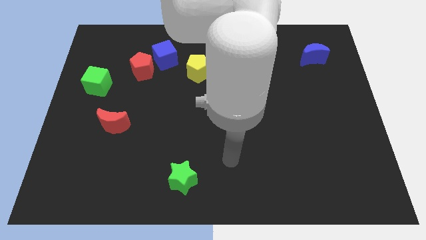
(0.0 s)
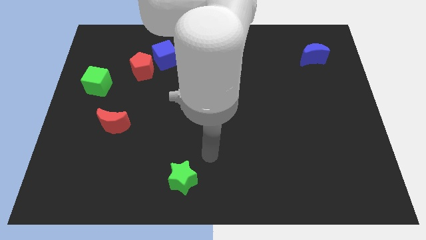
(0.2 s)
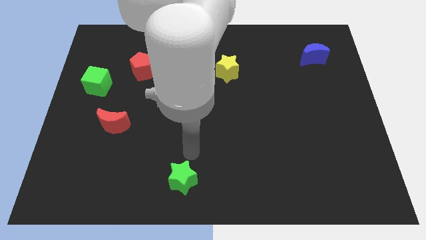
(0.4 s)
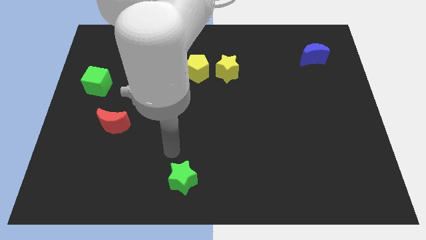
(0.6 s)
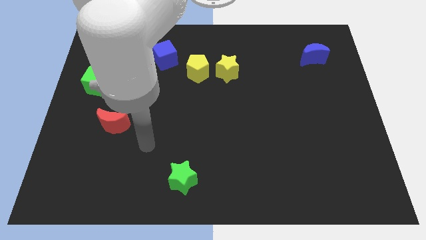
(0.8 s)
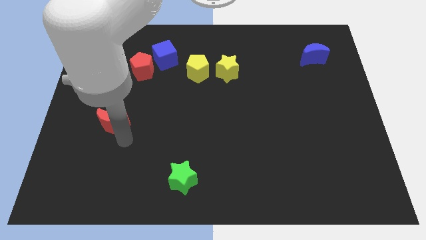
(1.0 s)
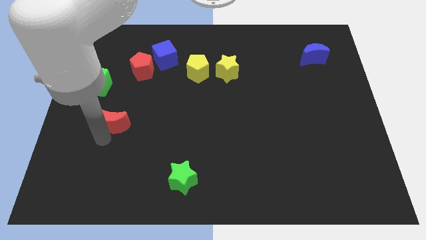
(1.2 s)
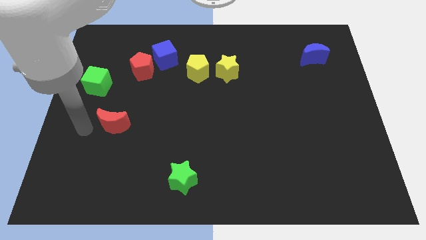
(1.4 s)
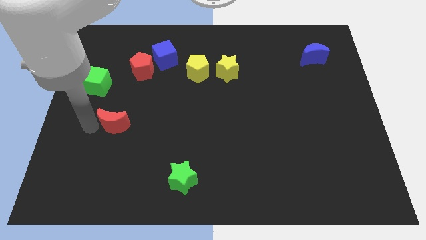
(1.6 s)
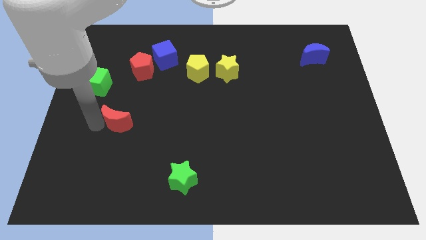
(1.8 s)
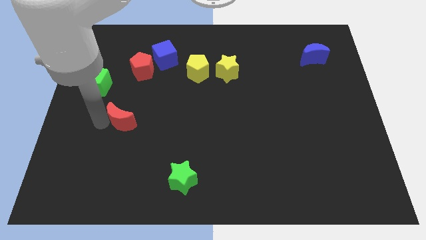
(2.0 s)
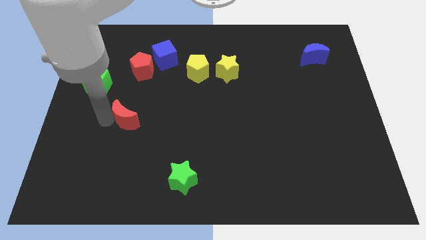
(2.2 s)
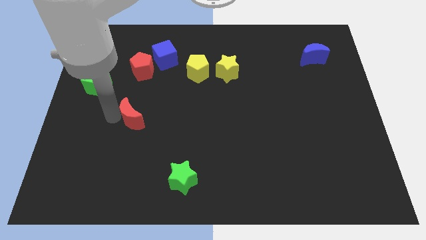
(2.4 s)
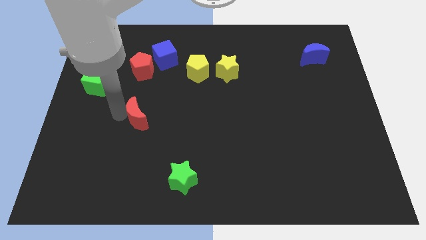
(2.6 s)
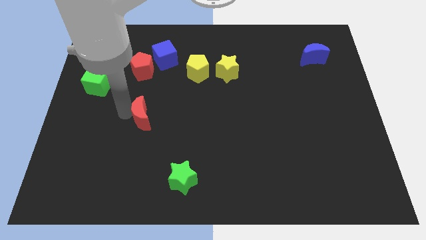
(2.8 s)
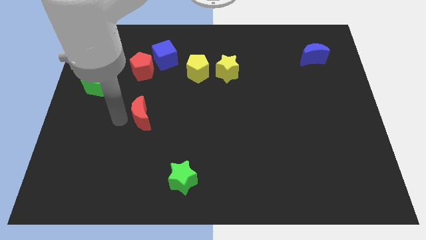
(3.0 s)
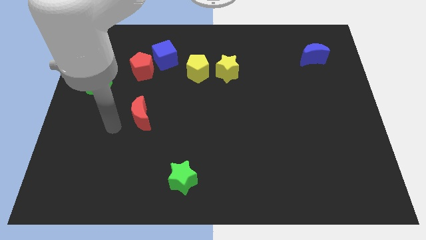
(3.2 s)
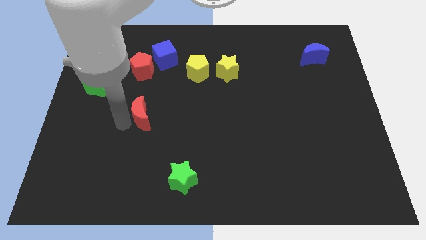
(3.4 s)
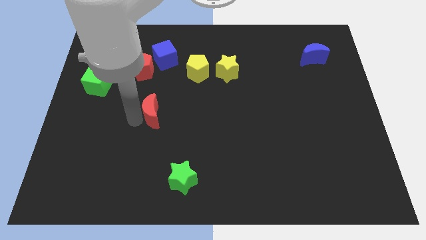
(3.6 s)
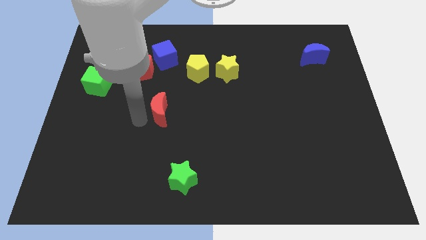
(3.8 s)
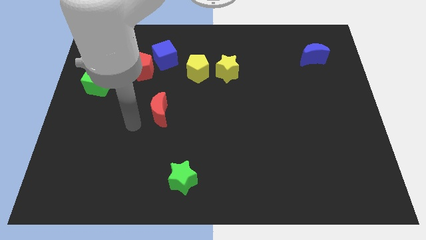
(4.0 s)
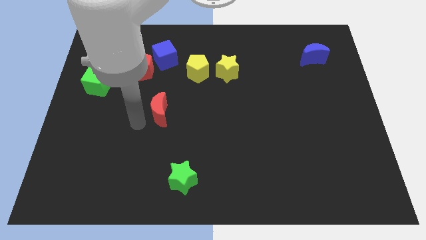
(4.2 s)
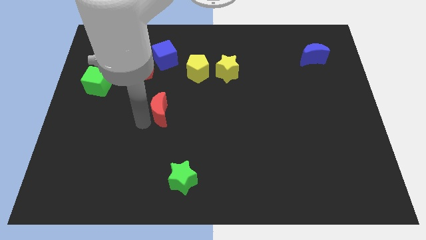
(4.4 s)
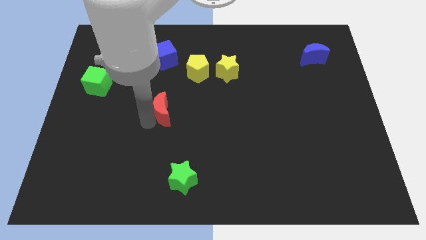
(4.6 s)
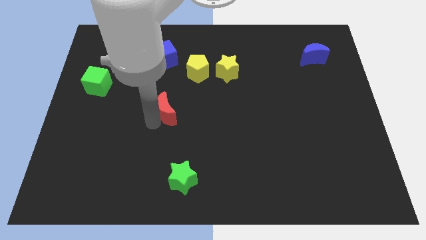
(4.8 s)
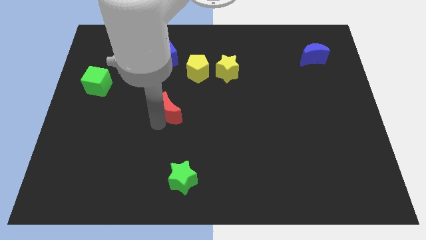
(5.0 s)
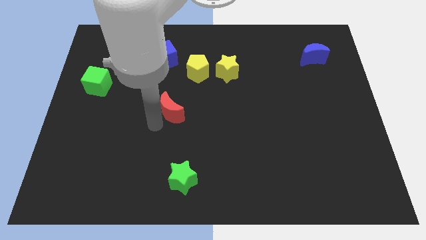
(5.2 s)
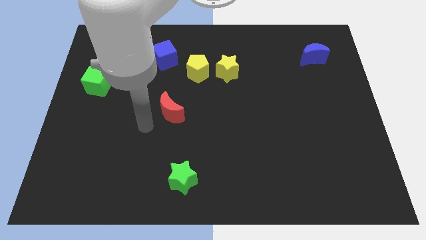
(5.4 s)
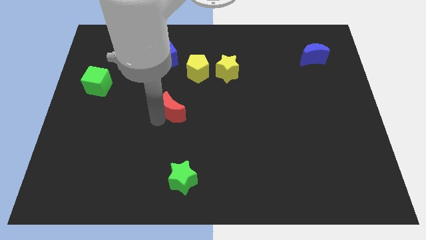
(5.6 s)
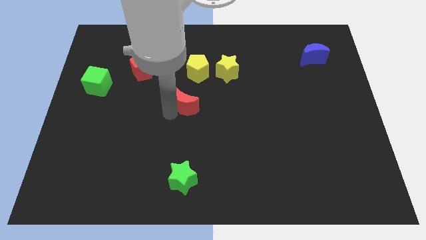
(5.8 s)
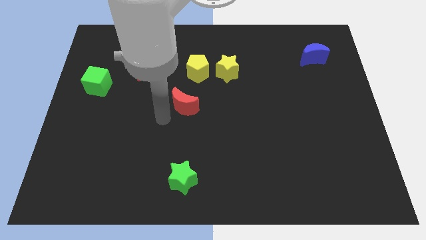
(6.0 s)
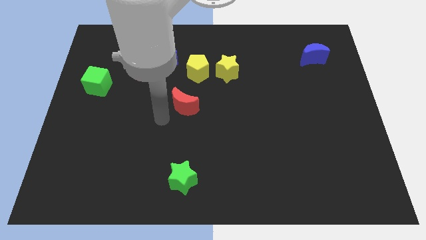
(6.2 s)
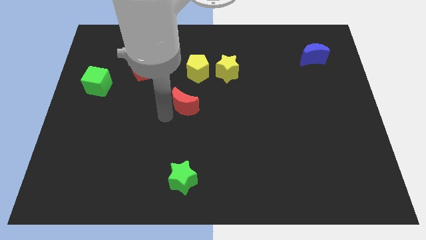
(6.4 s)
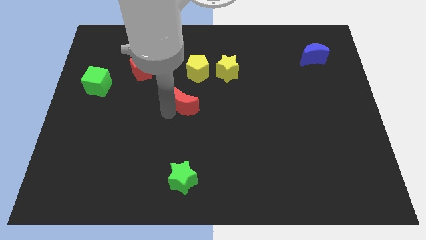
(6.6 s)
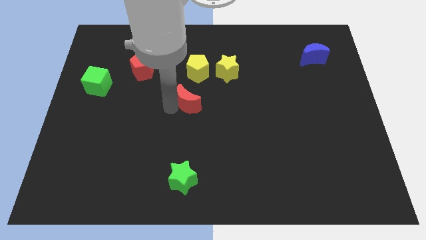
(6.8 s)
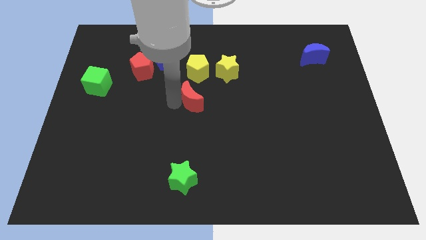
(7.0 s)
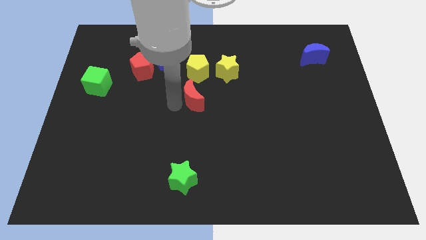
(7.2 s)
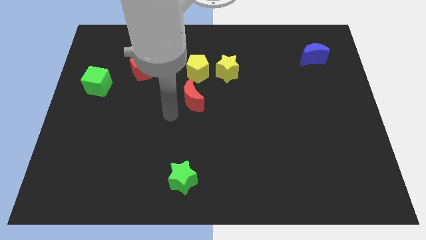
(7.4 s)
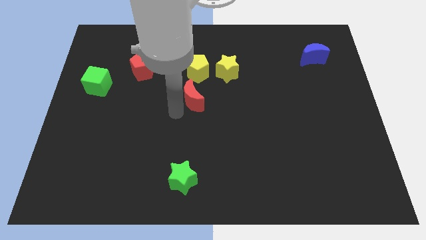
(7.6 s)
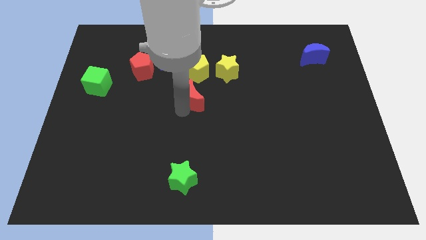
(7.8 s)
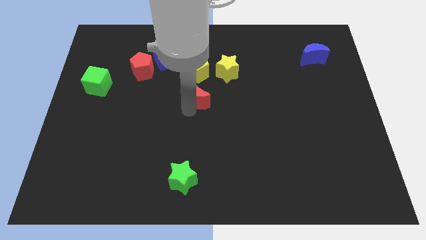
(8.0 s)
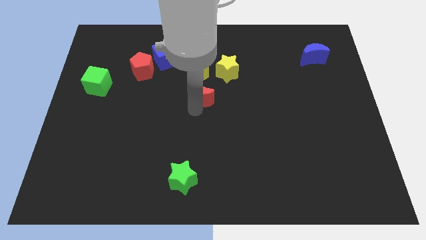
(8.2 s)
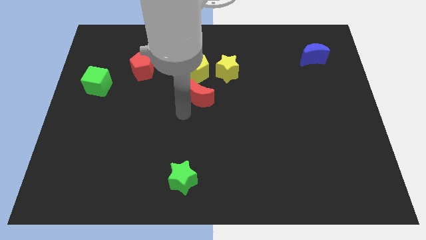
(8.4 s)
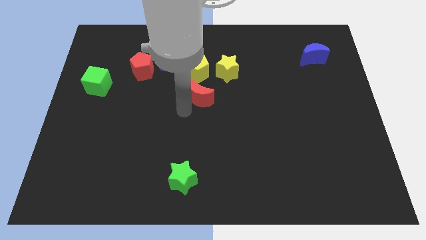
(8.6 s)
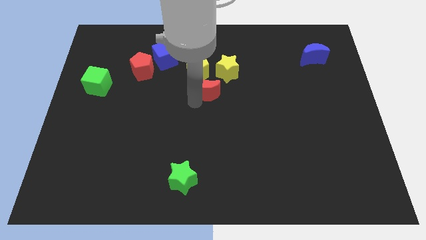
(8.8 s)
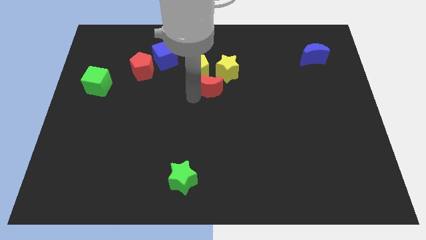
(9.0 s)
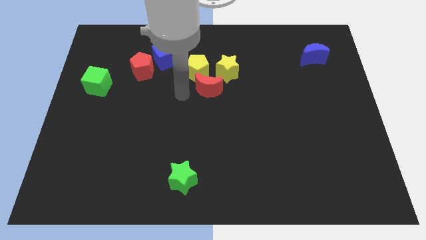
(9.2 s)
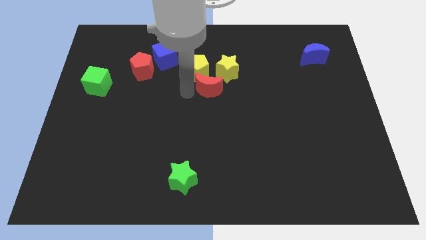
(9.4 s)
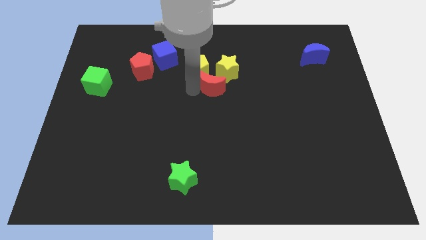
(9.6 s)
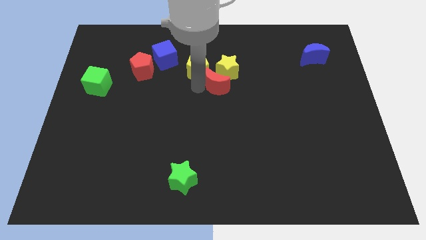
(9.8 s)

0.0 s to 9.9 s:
push the red moon just right of the yellow pentagon

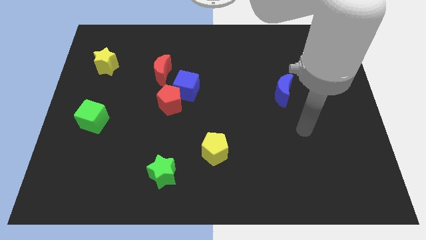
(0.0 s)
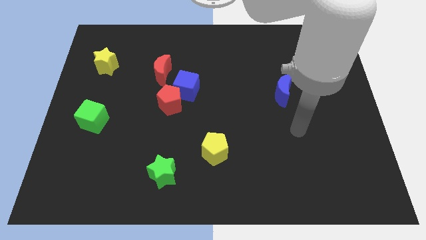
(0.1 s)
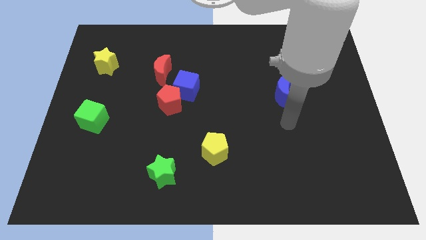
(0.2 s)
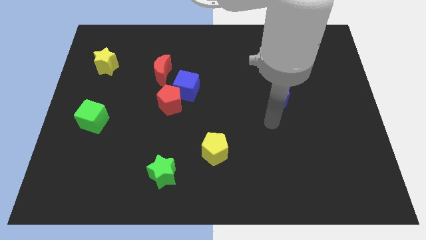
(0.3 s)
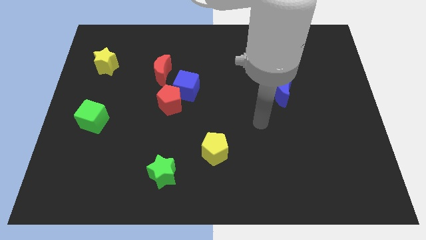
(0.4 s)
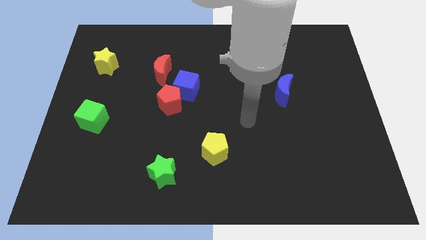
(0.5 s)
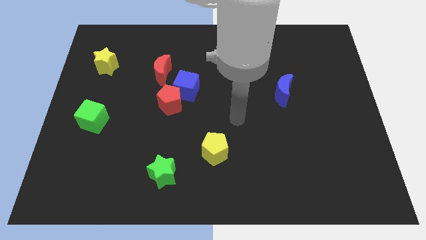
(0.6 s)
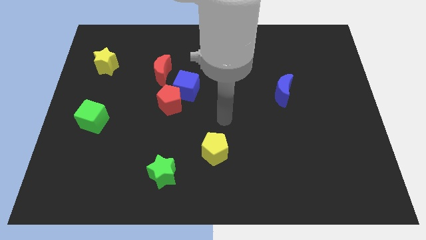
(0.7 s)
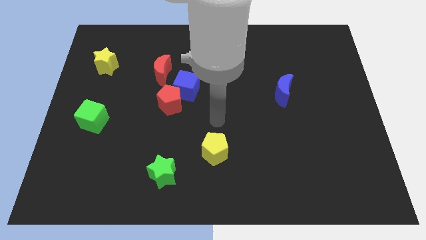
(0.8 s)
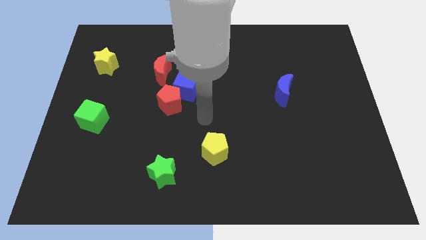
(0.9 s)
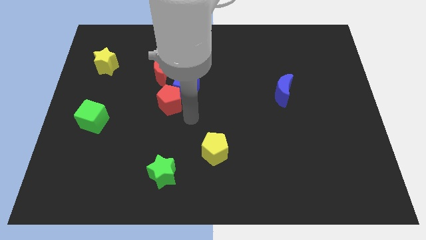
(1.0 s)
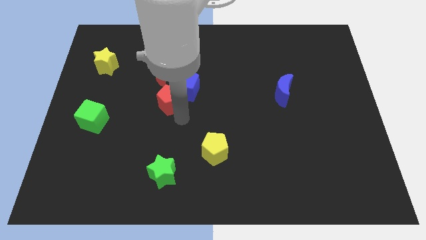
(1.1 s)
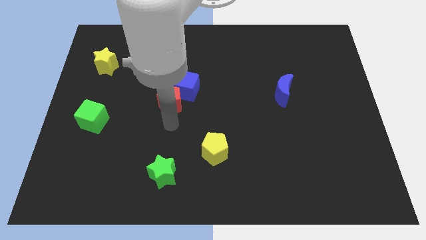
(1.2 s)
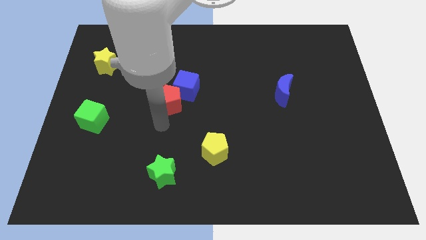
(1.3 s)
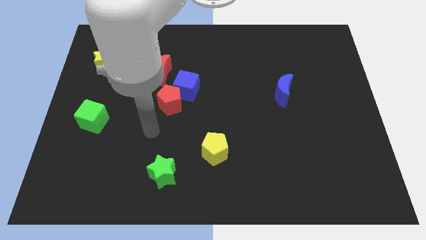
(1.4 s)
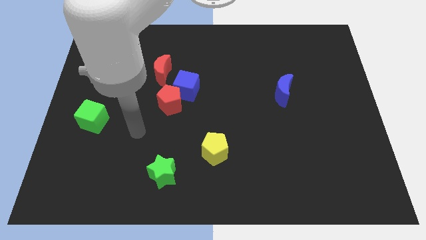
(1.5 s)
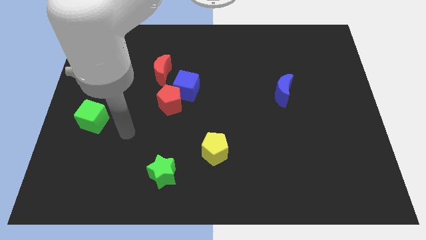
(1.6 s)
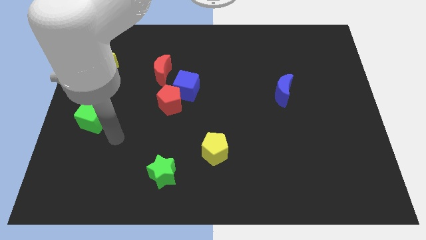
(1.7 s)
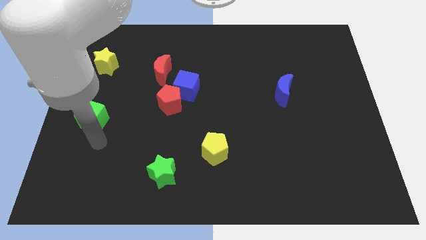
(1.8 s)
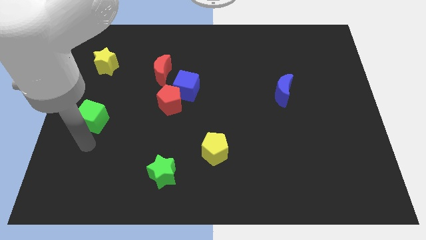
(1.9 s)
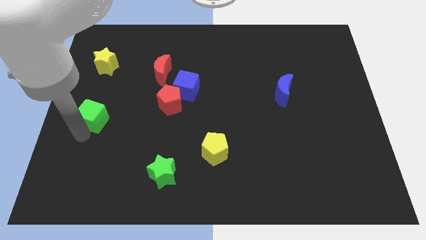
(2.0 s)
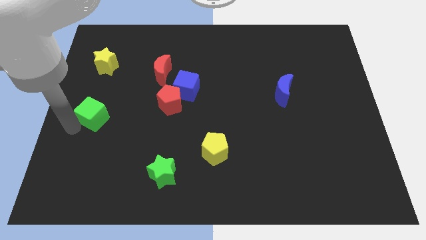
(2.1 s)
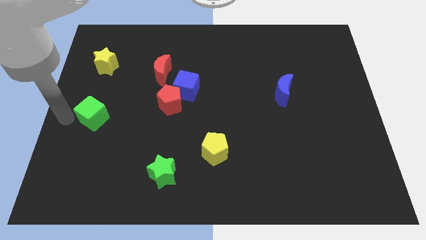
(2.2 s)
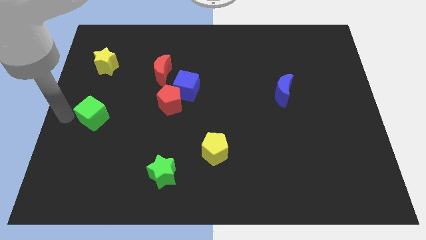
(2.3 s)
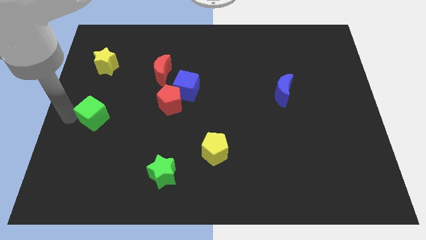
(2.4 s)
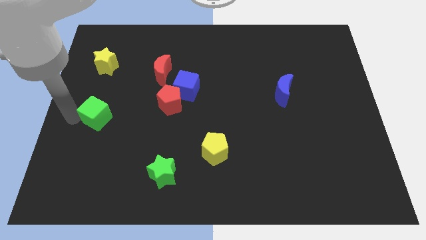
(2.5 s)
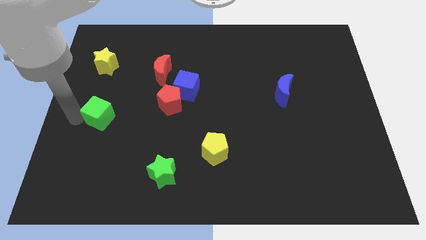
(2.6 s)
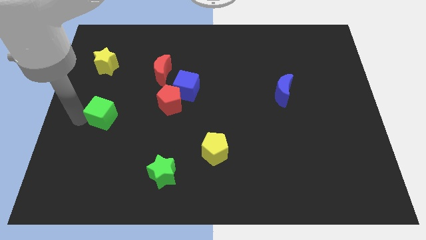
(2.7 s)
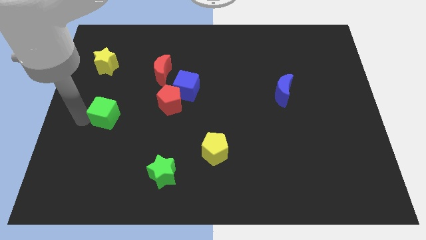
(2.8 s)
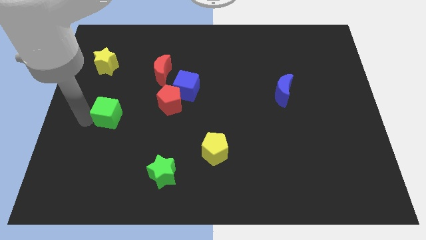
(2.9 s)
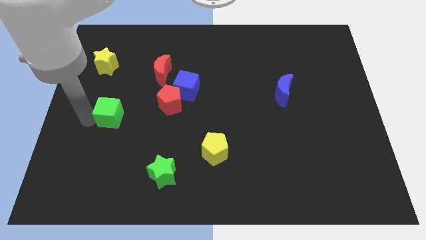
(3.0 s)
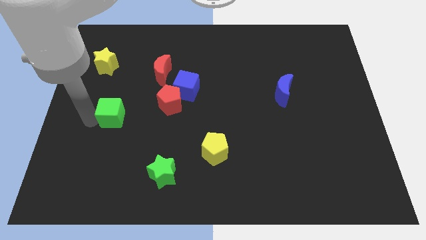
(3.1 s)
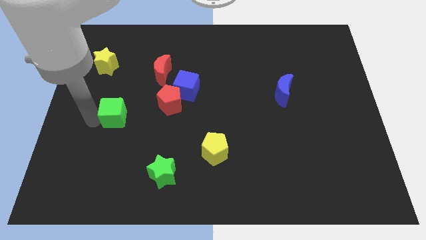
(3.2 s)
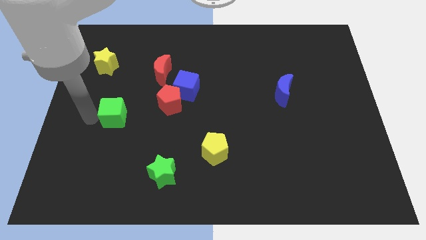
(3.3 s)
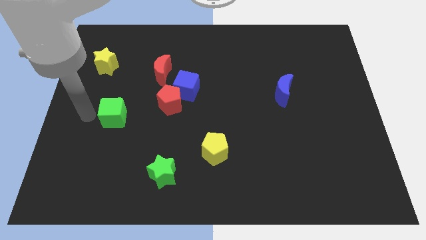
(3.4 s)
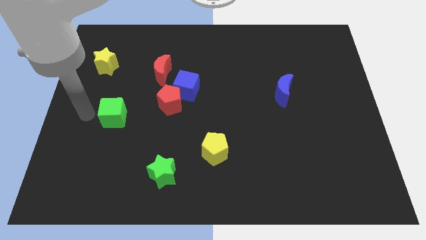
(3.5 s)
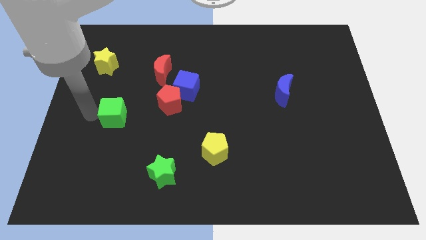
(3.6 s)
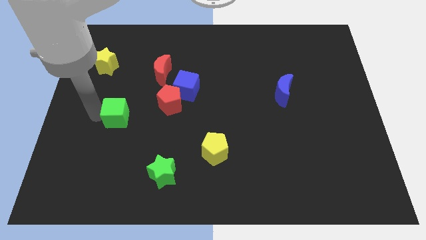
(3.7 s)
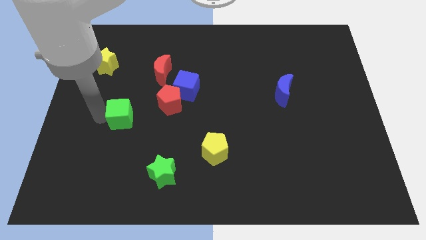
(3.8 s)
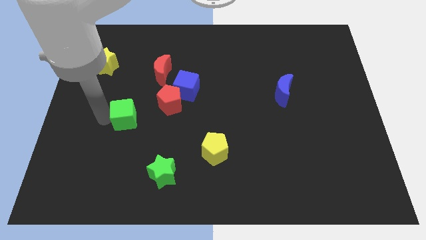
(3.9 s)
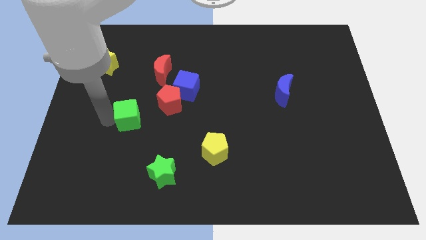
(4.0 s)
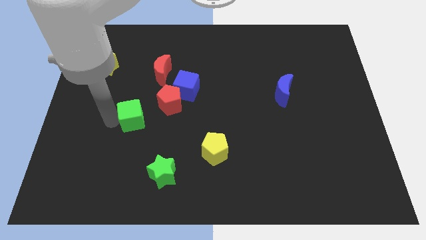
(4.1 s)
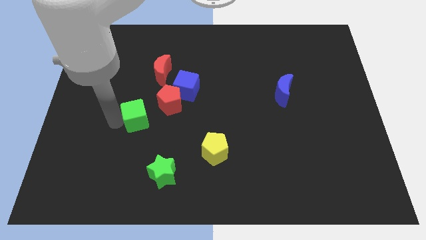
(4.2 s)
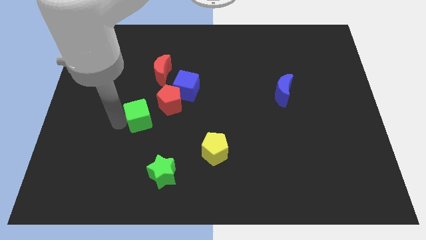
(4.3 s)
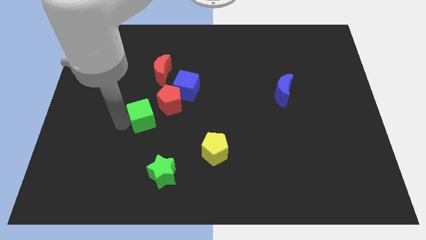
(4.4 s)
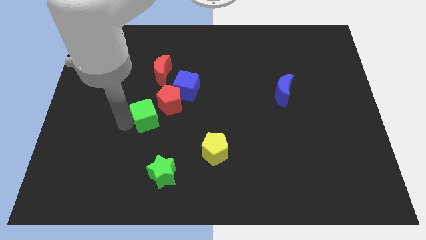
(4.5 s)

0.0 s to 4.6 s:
slide the green cube diagonally down and to the left of the blue cube
